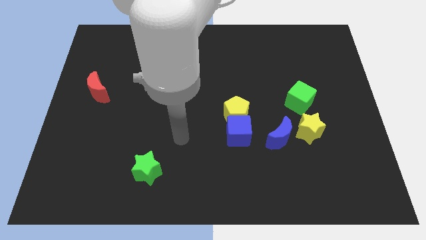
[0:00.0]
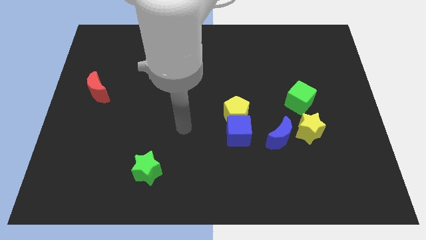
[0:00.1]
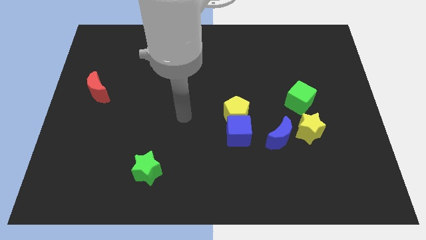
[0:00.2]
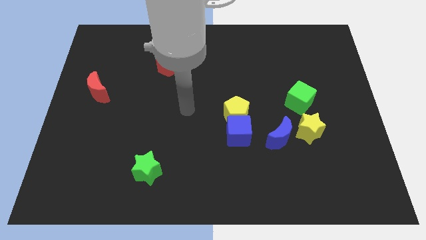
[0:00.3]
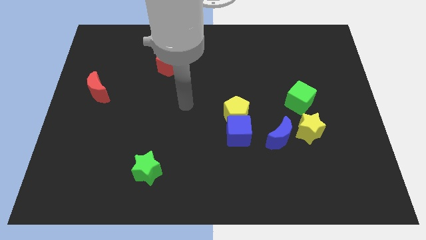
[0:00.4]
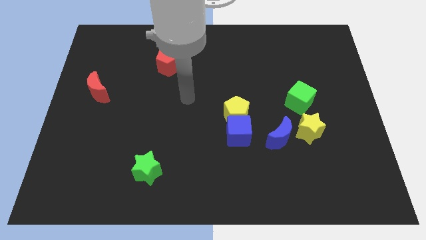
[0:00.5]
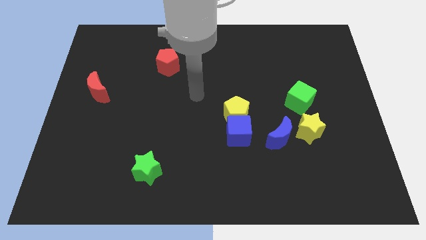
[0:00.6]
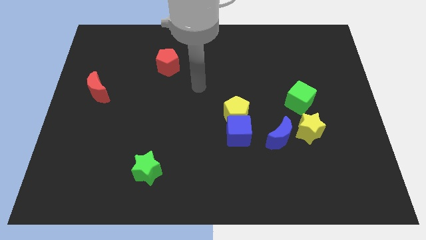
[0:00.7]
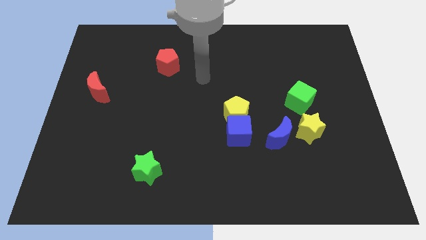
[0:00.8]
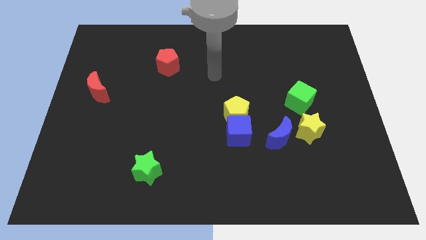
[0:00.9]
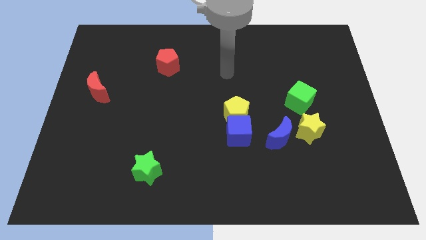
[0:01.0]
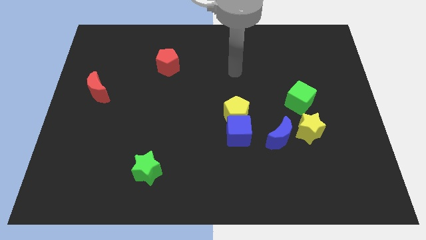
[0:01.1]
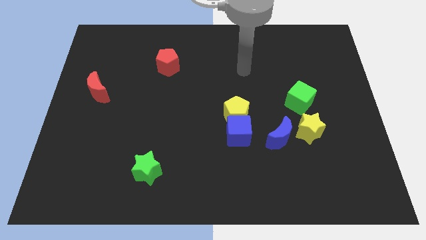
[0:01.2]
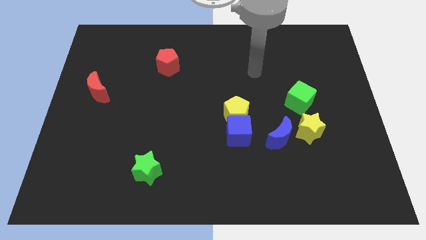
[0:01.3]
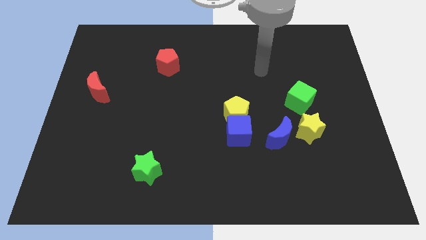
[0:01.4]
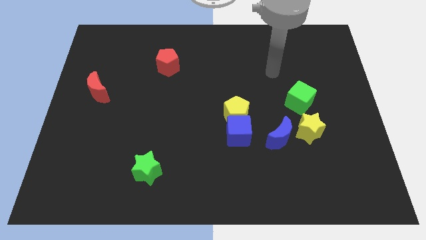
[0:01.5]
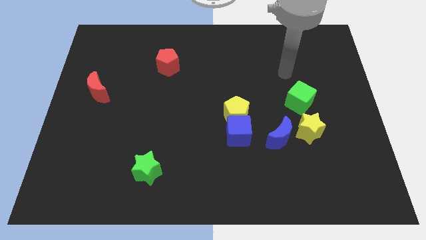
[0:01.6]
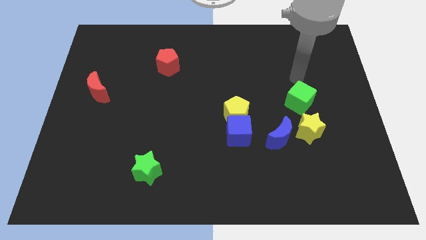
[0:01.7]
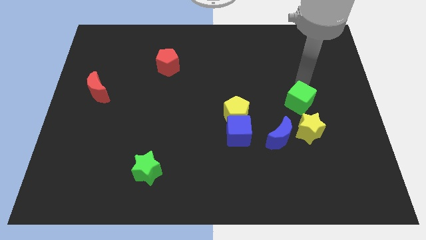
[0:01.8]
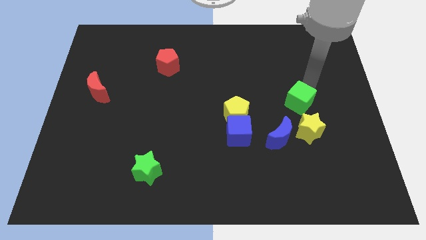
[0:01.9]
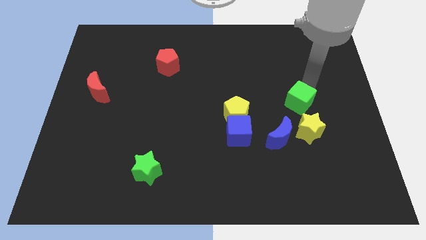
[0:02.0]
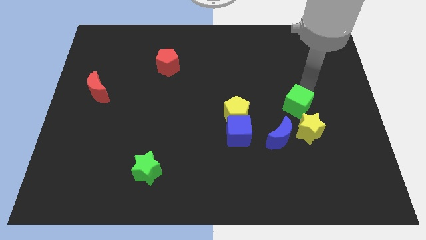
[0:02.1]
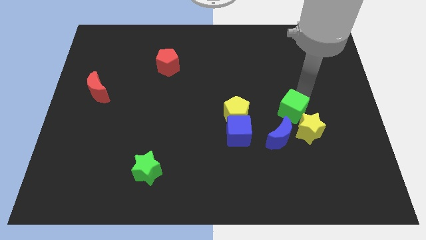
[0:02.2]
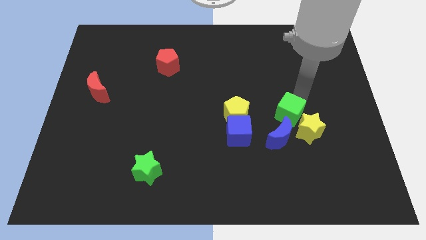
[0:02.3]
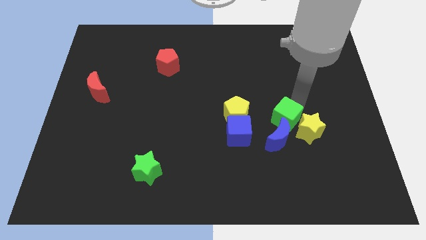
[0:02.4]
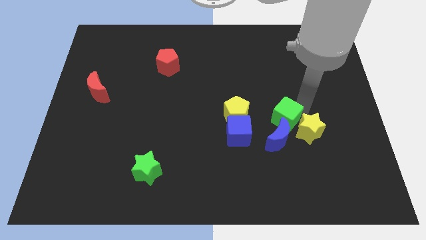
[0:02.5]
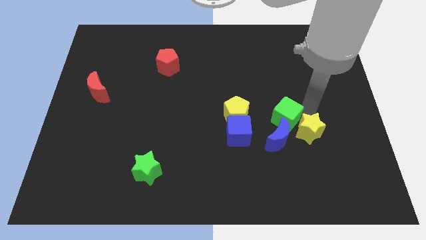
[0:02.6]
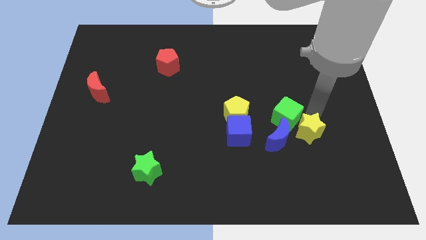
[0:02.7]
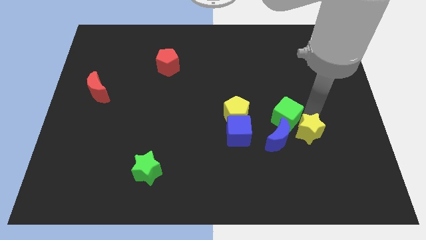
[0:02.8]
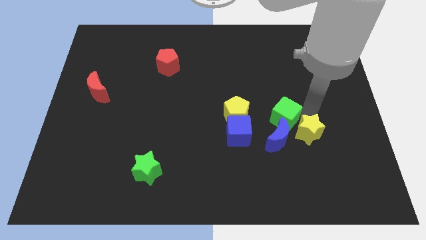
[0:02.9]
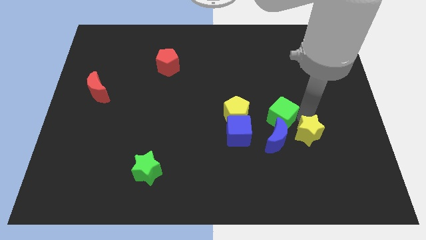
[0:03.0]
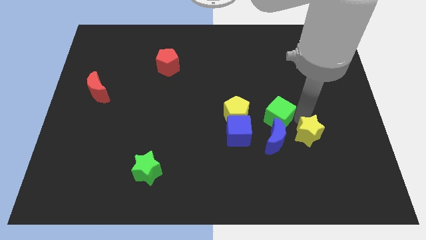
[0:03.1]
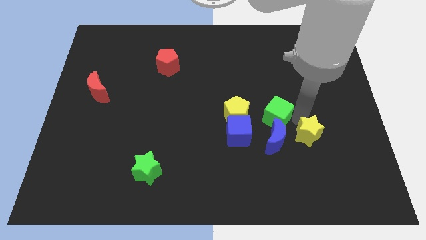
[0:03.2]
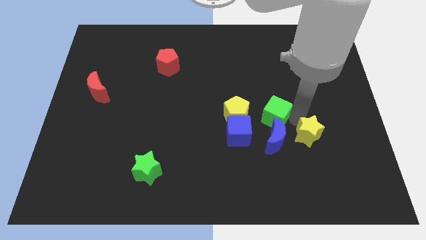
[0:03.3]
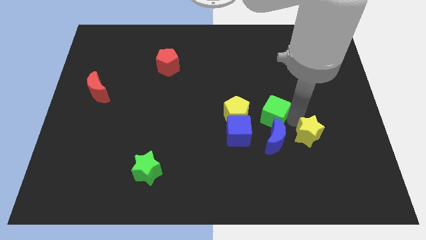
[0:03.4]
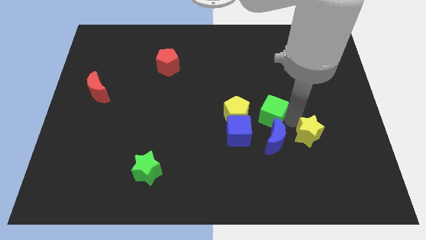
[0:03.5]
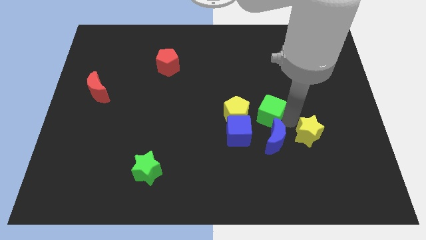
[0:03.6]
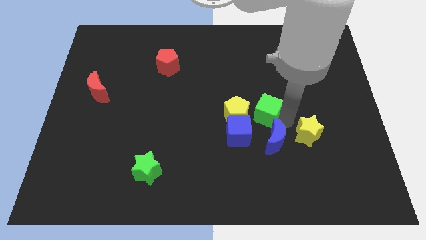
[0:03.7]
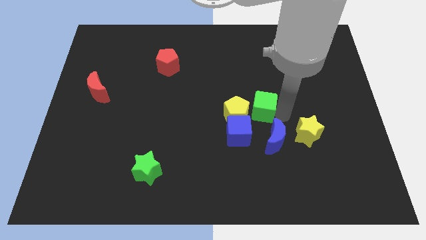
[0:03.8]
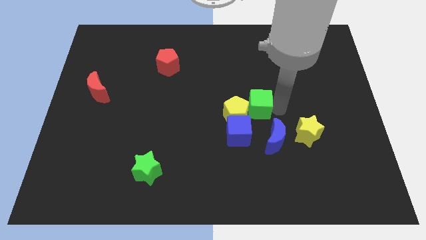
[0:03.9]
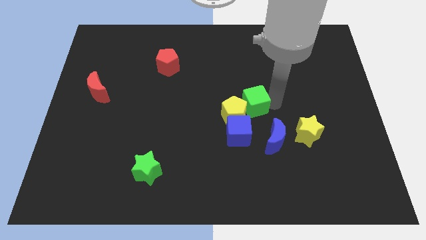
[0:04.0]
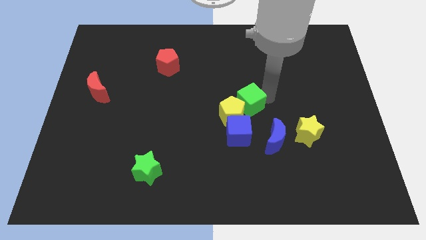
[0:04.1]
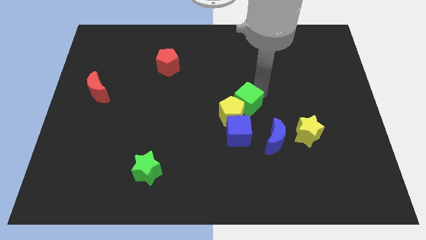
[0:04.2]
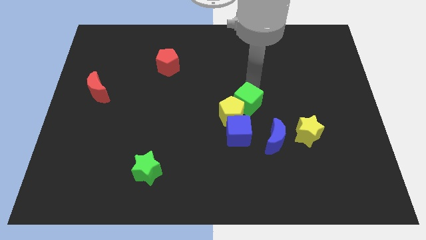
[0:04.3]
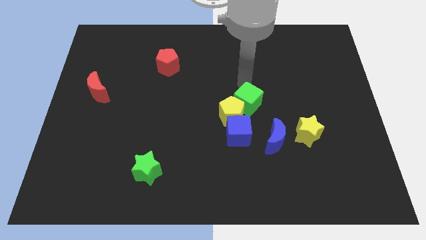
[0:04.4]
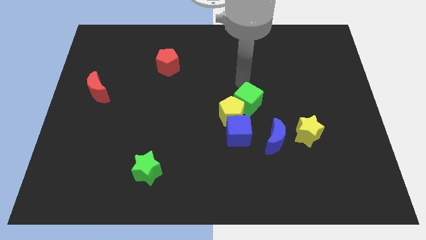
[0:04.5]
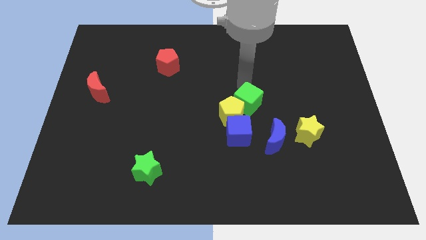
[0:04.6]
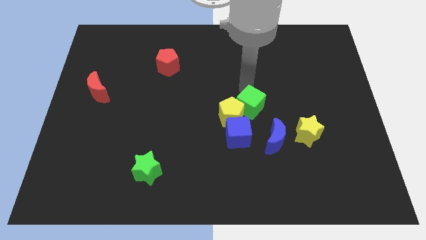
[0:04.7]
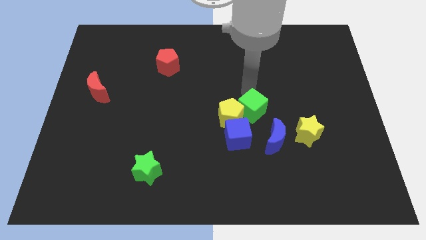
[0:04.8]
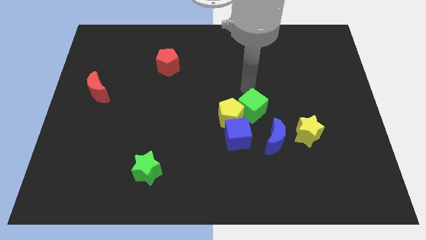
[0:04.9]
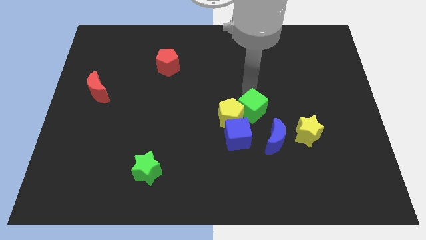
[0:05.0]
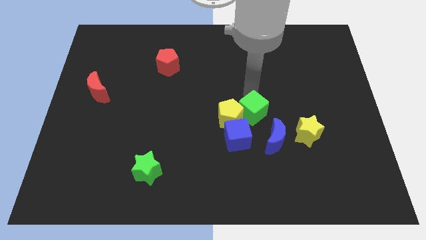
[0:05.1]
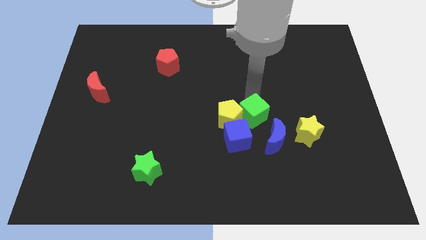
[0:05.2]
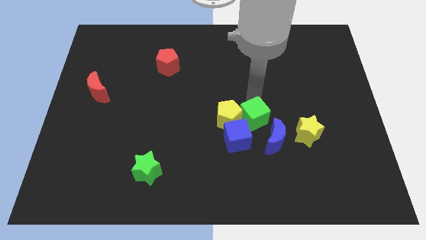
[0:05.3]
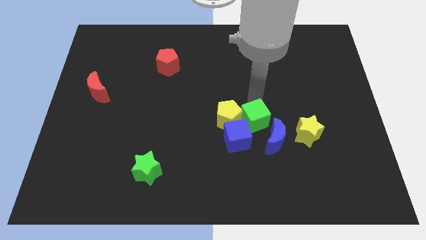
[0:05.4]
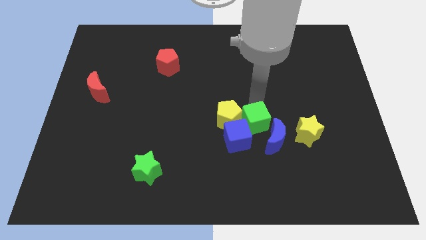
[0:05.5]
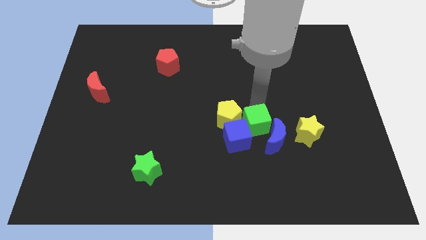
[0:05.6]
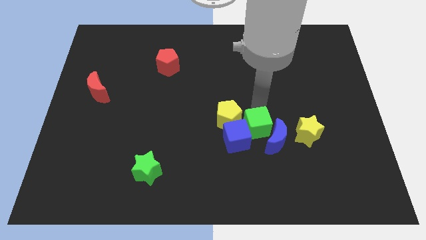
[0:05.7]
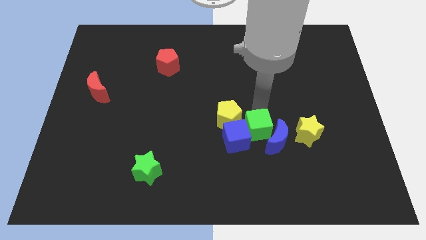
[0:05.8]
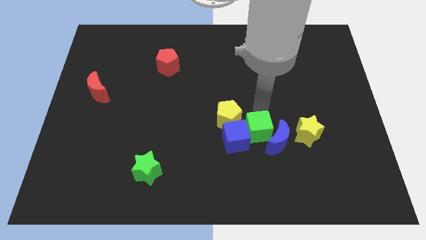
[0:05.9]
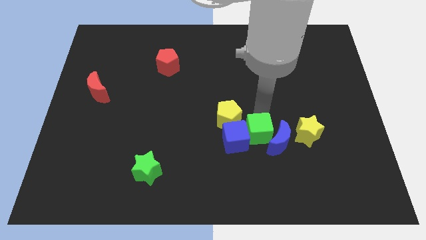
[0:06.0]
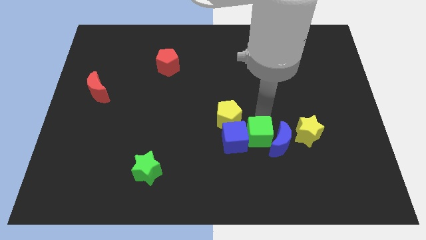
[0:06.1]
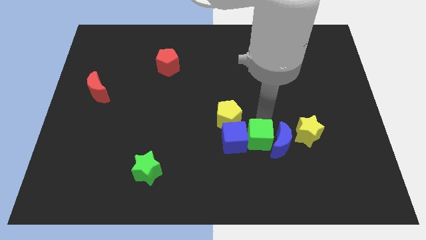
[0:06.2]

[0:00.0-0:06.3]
slide the green cube to the bottom left of the blue moon
